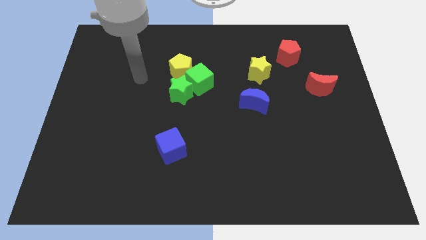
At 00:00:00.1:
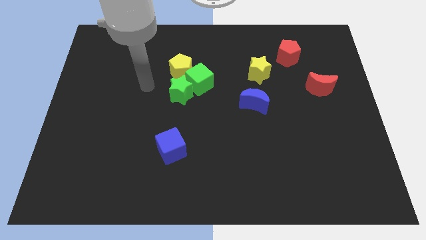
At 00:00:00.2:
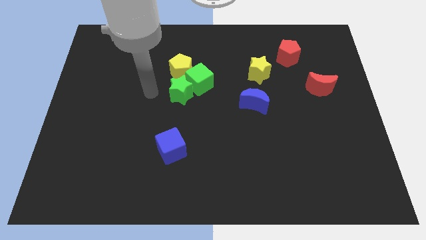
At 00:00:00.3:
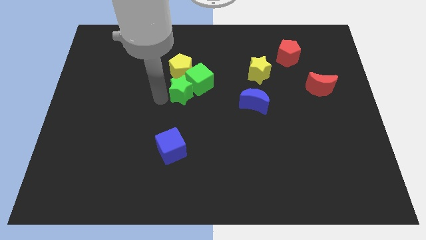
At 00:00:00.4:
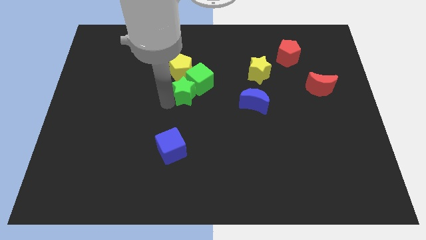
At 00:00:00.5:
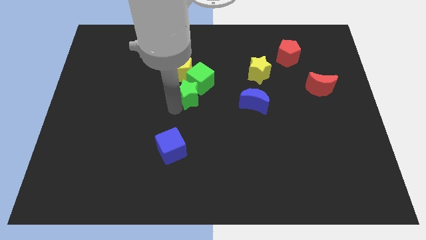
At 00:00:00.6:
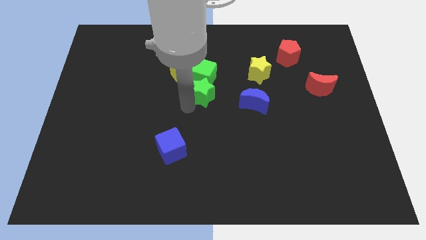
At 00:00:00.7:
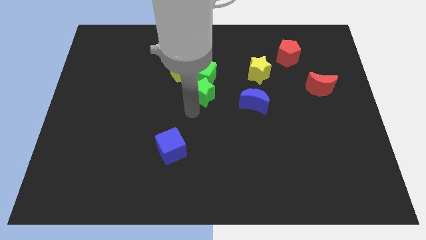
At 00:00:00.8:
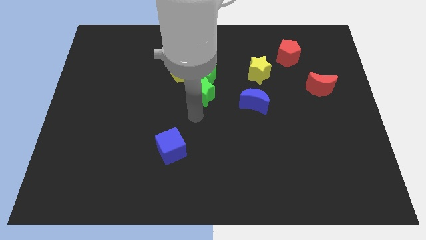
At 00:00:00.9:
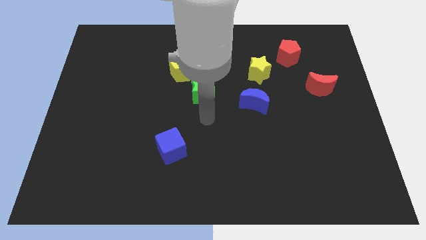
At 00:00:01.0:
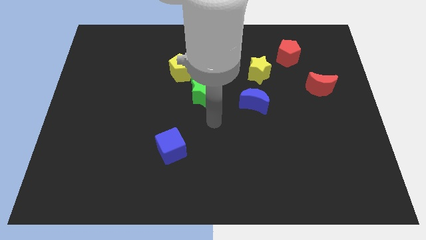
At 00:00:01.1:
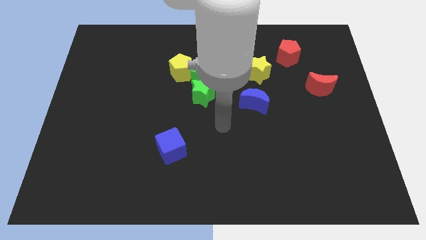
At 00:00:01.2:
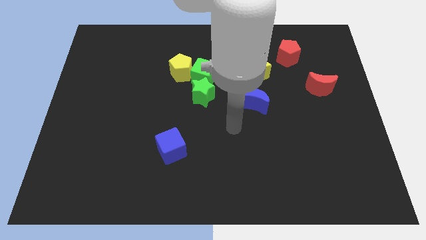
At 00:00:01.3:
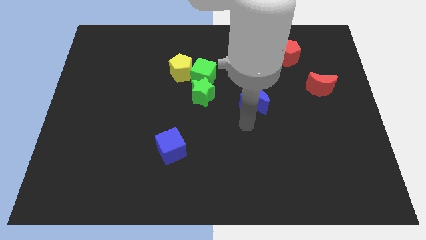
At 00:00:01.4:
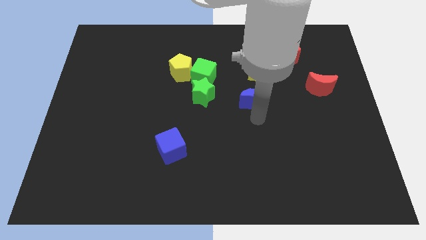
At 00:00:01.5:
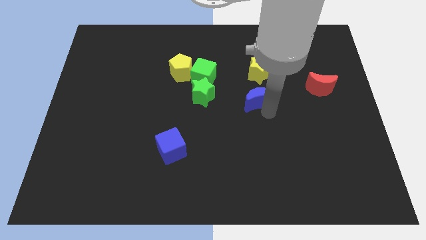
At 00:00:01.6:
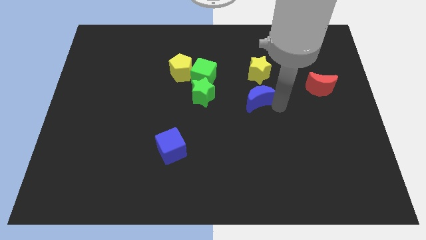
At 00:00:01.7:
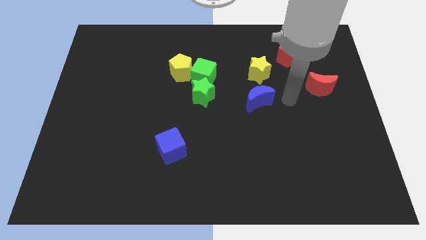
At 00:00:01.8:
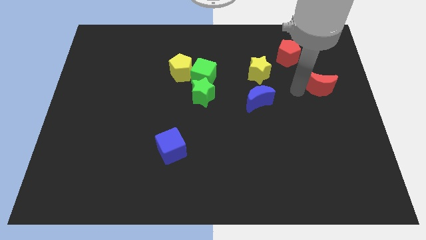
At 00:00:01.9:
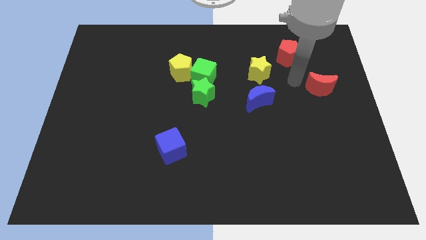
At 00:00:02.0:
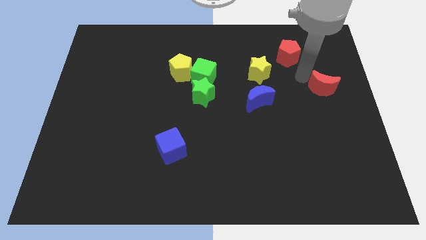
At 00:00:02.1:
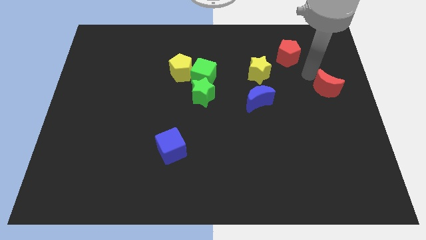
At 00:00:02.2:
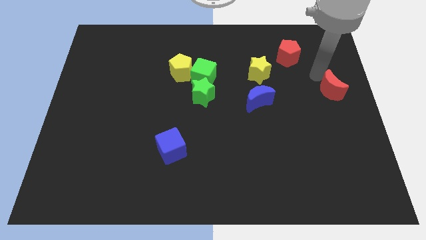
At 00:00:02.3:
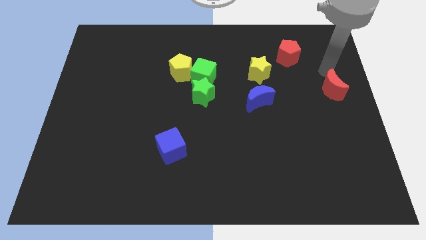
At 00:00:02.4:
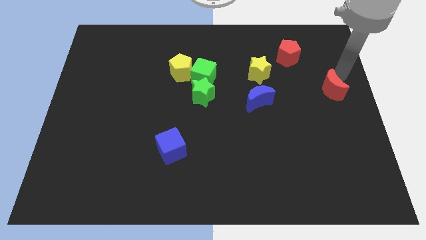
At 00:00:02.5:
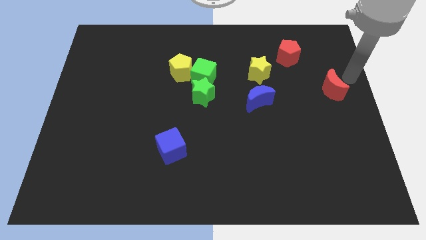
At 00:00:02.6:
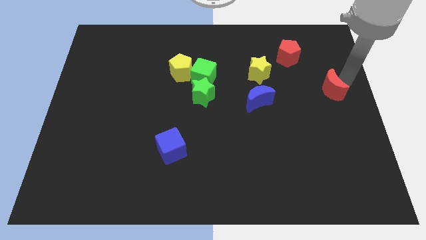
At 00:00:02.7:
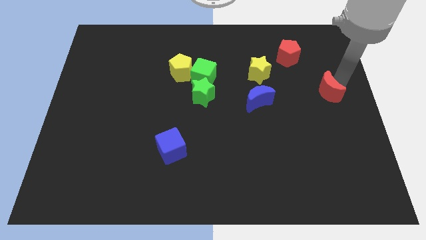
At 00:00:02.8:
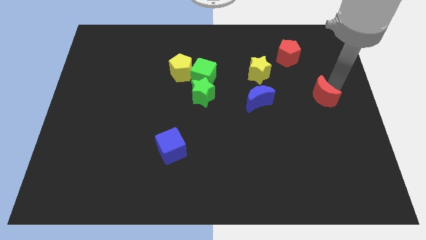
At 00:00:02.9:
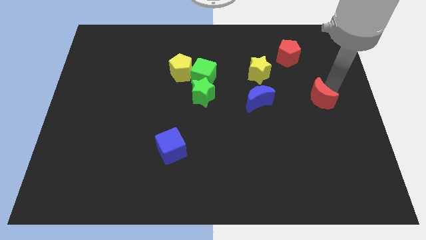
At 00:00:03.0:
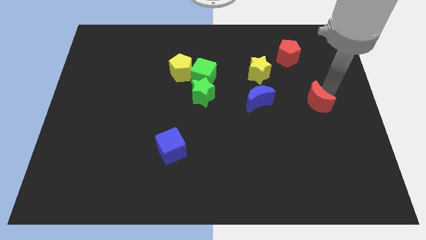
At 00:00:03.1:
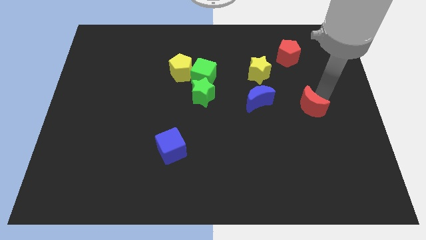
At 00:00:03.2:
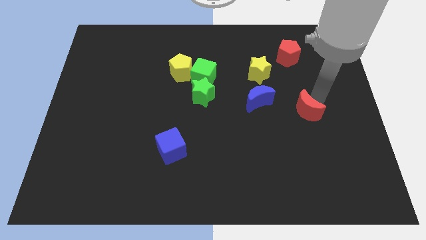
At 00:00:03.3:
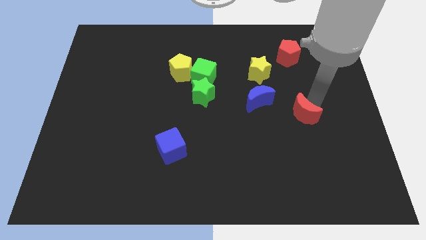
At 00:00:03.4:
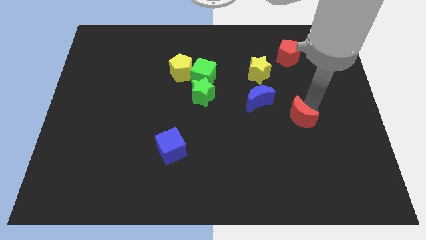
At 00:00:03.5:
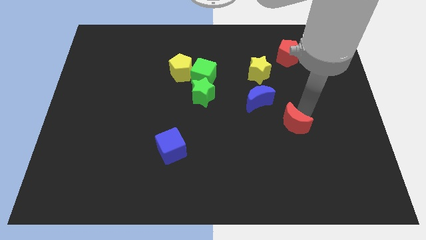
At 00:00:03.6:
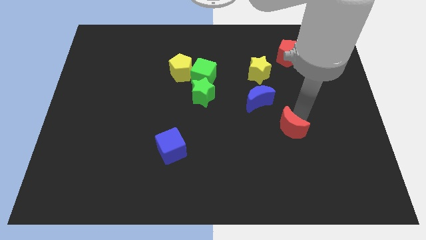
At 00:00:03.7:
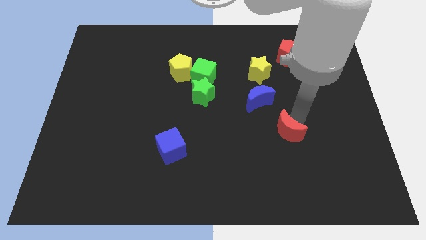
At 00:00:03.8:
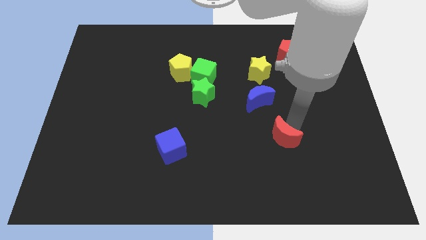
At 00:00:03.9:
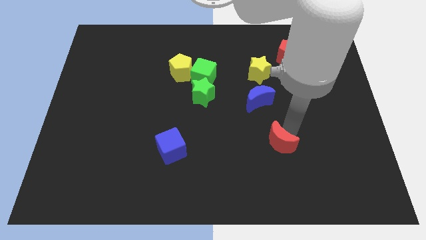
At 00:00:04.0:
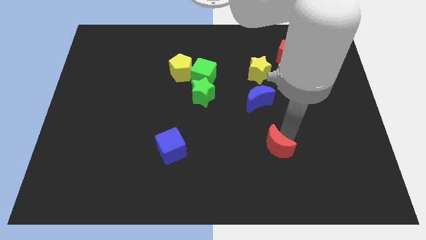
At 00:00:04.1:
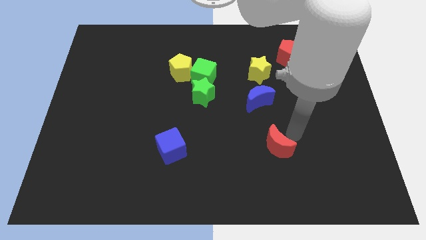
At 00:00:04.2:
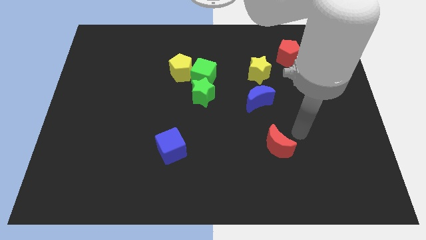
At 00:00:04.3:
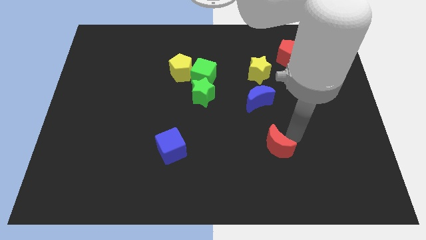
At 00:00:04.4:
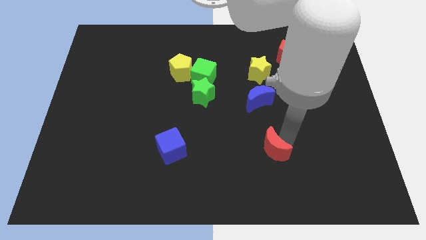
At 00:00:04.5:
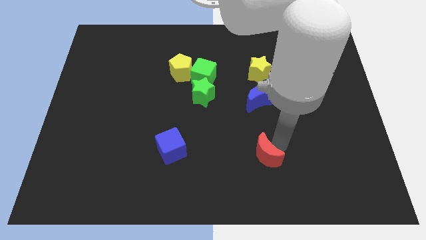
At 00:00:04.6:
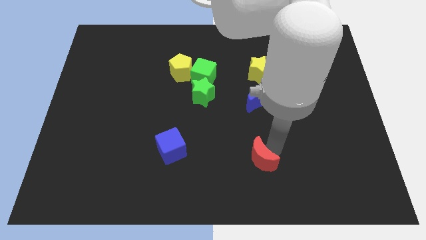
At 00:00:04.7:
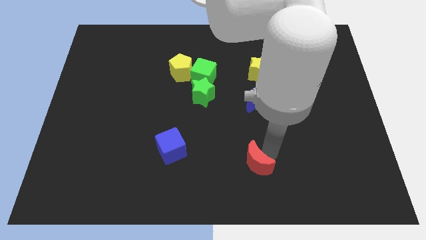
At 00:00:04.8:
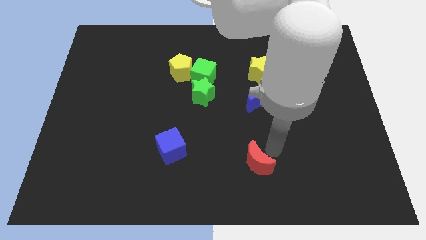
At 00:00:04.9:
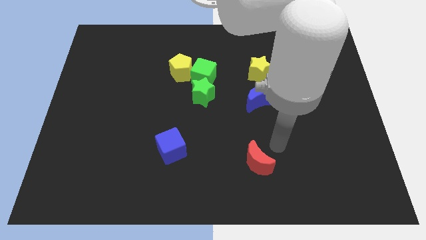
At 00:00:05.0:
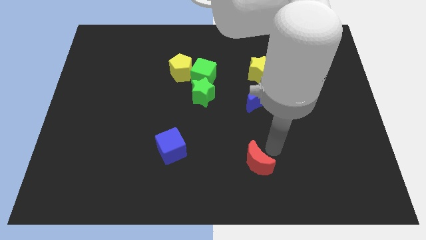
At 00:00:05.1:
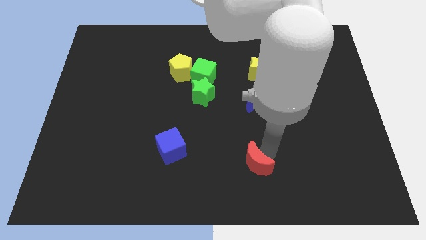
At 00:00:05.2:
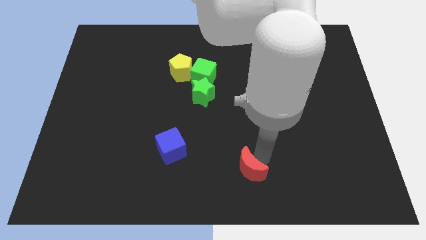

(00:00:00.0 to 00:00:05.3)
slide the red moon to the bottom

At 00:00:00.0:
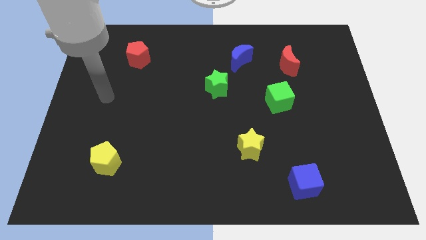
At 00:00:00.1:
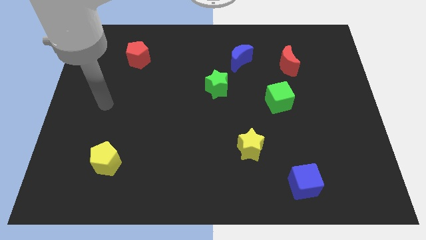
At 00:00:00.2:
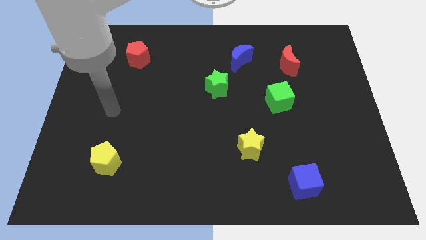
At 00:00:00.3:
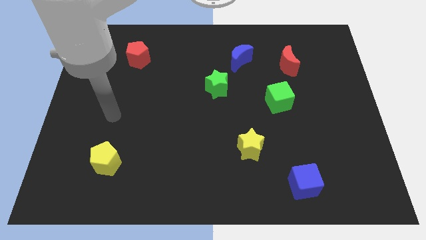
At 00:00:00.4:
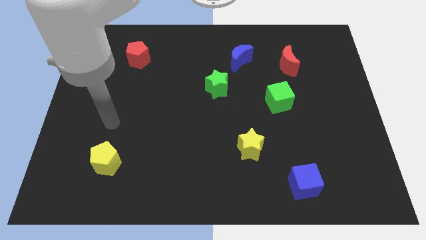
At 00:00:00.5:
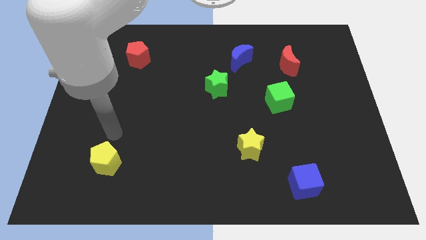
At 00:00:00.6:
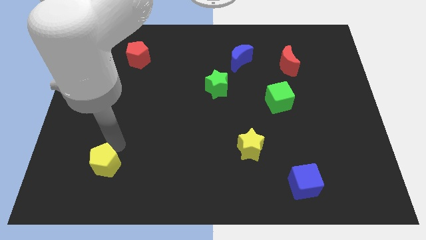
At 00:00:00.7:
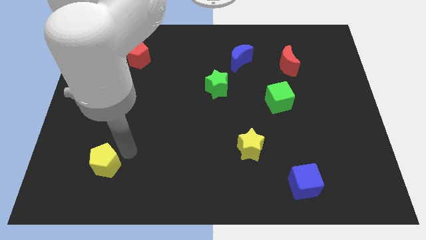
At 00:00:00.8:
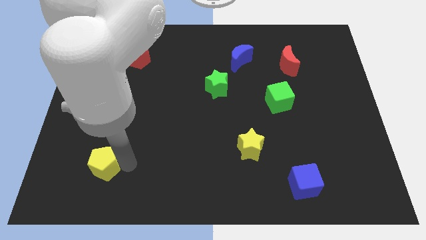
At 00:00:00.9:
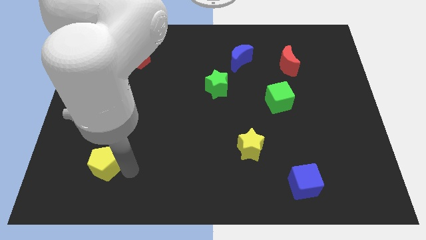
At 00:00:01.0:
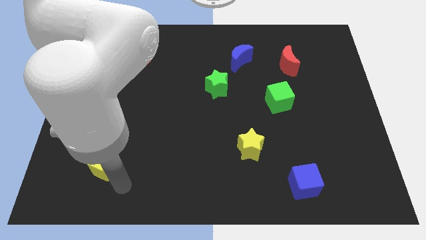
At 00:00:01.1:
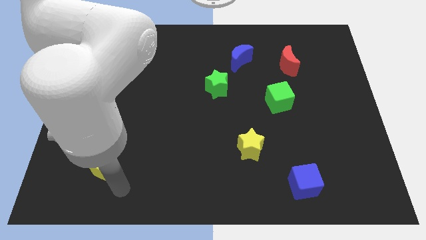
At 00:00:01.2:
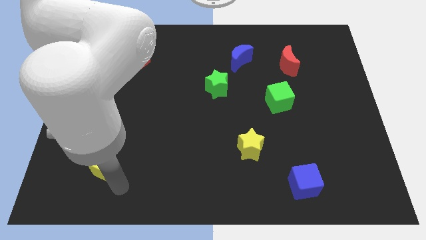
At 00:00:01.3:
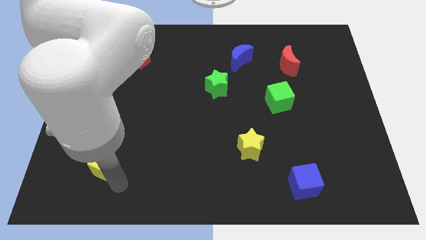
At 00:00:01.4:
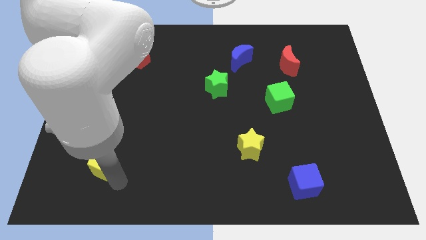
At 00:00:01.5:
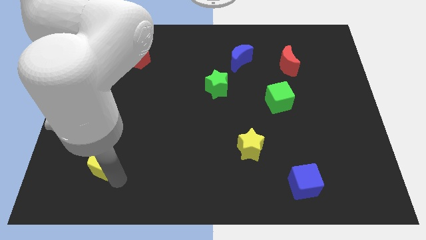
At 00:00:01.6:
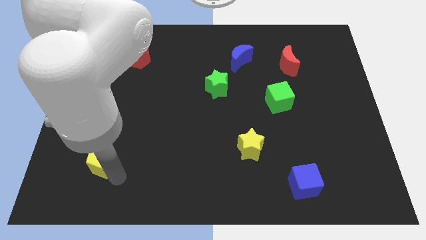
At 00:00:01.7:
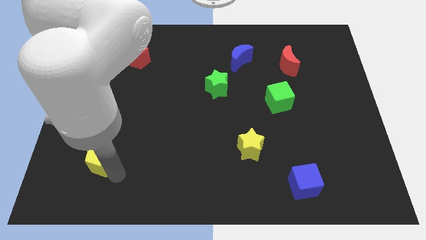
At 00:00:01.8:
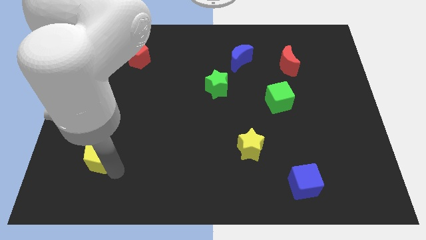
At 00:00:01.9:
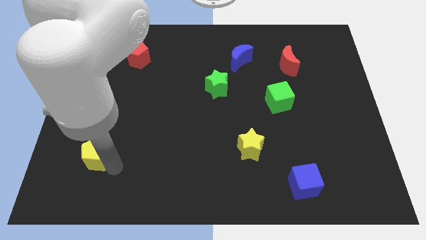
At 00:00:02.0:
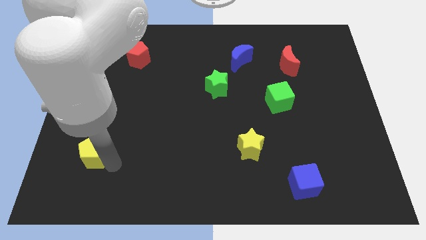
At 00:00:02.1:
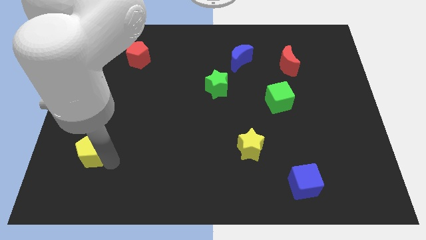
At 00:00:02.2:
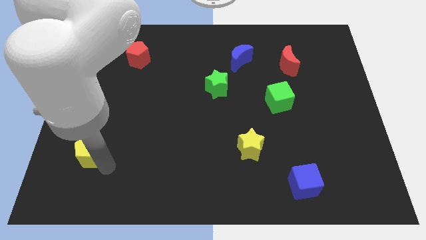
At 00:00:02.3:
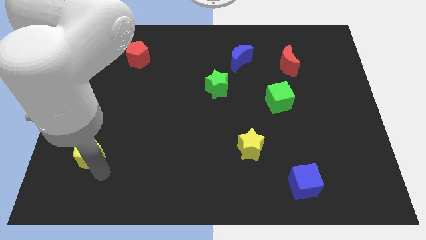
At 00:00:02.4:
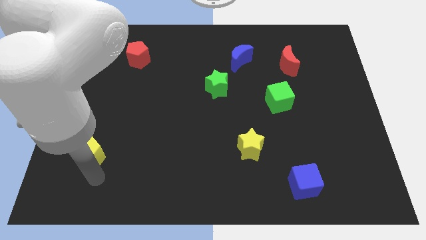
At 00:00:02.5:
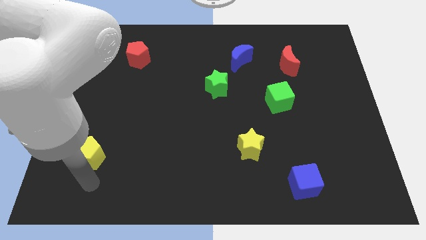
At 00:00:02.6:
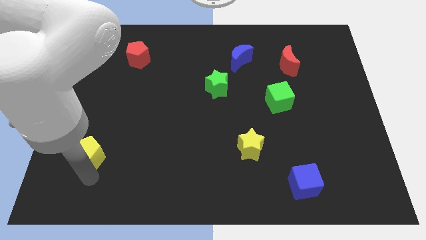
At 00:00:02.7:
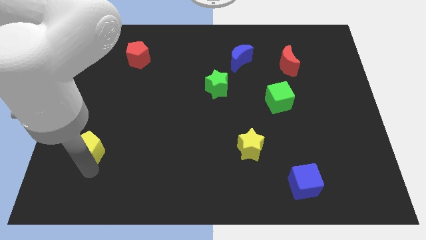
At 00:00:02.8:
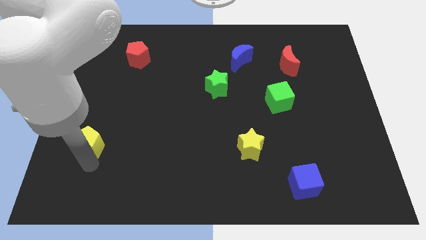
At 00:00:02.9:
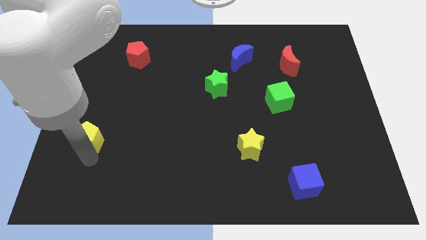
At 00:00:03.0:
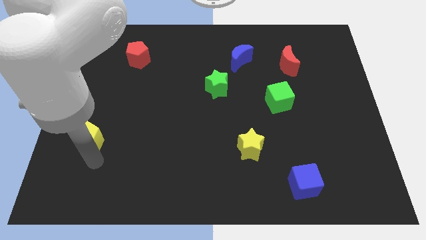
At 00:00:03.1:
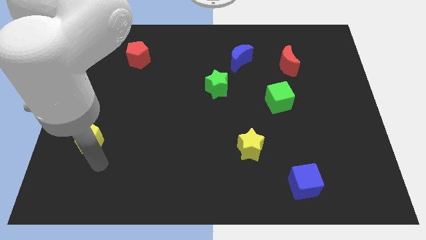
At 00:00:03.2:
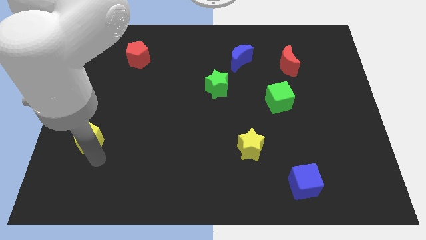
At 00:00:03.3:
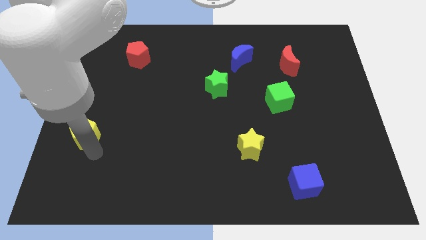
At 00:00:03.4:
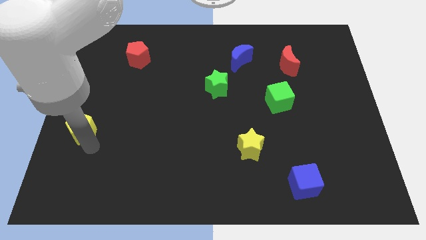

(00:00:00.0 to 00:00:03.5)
move the yellow pentagon to the left side
